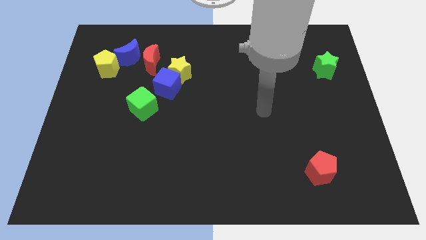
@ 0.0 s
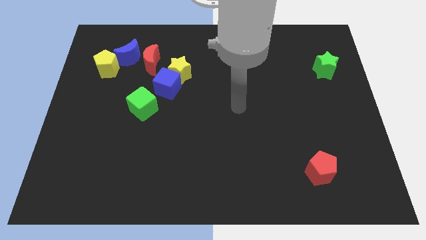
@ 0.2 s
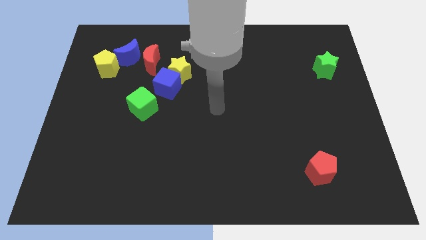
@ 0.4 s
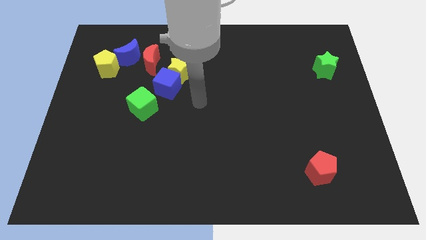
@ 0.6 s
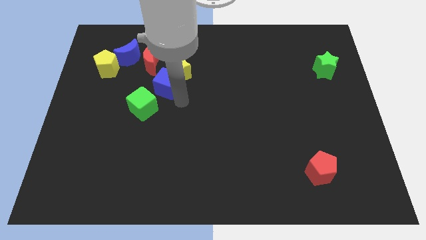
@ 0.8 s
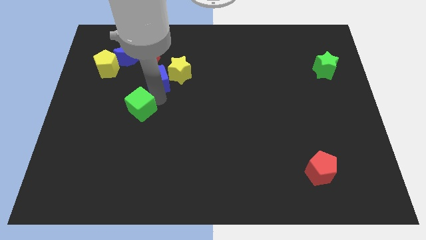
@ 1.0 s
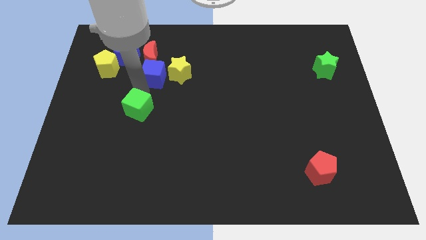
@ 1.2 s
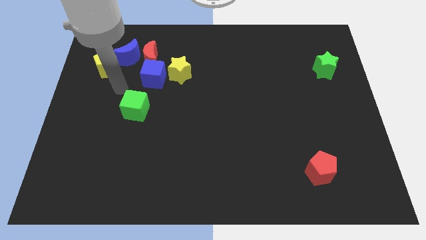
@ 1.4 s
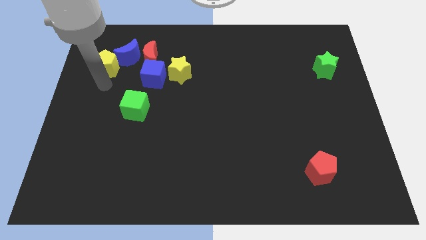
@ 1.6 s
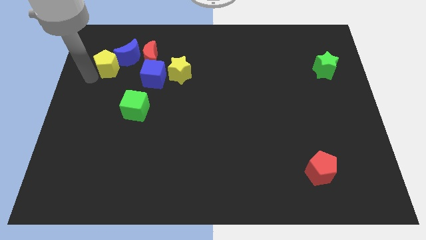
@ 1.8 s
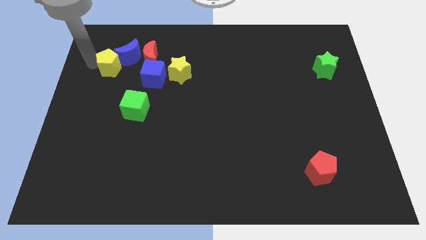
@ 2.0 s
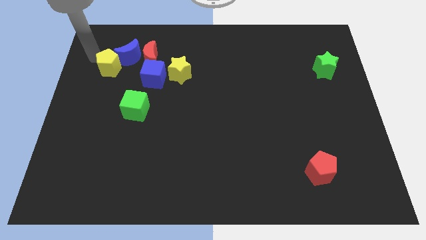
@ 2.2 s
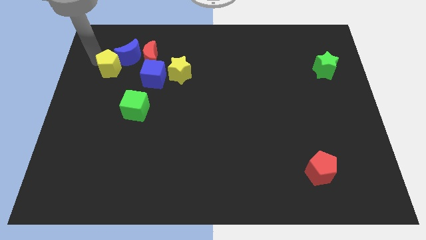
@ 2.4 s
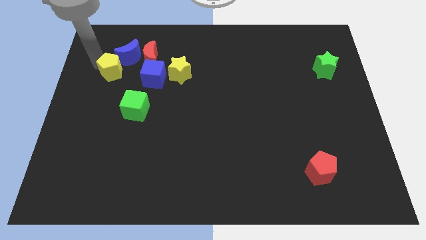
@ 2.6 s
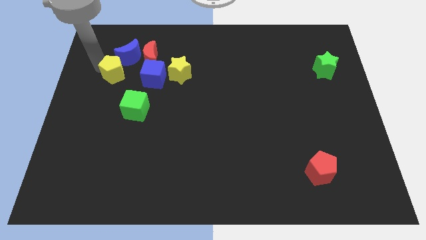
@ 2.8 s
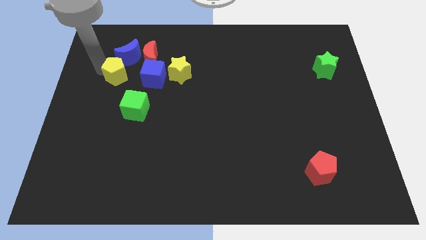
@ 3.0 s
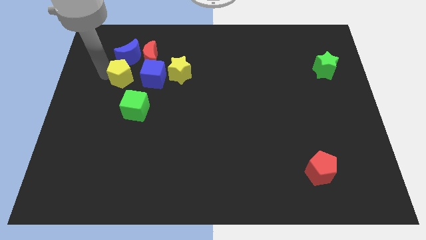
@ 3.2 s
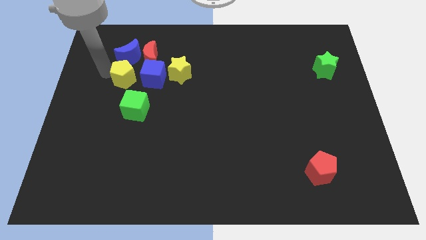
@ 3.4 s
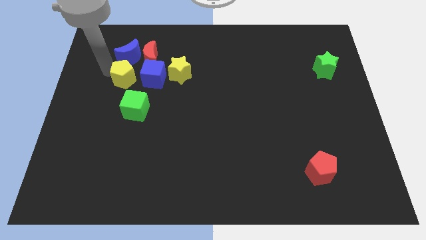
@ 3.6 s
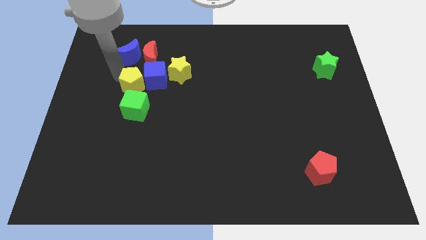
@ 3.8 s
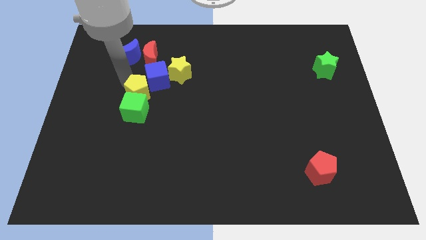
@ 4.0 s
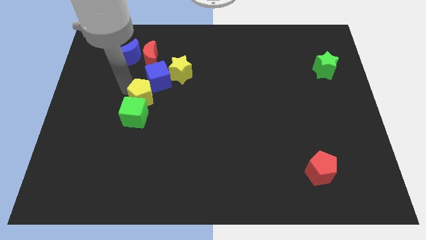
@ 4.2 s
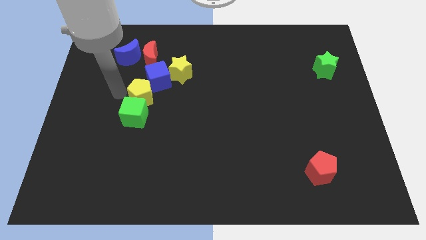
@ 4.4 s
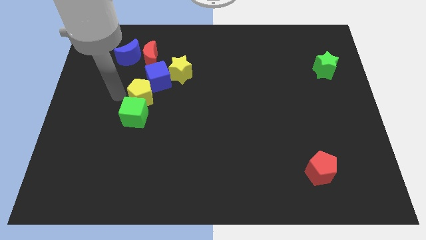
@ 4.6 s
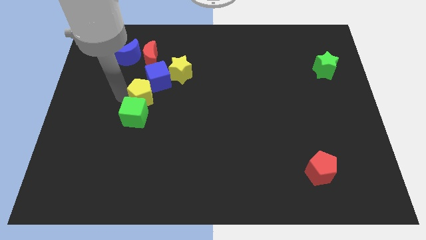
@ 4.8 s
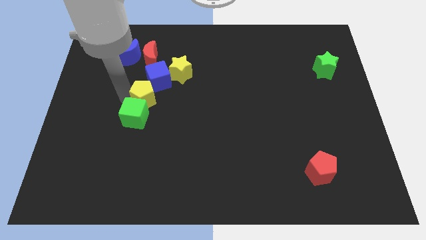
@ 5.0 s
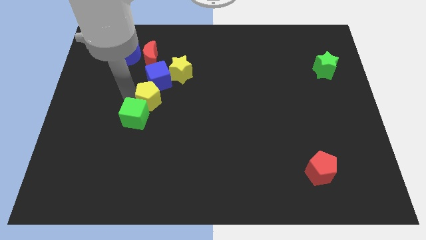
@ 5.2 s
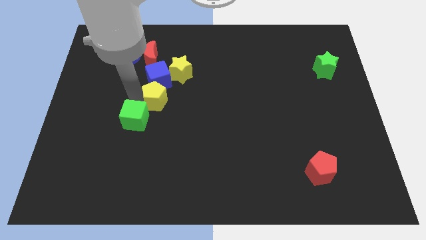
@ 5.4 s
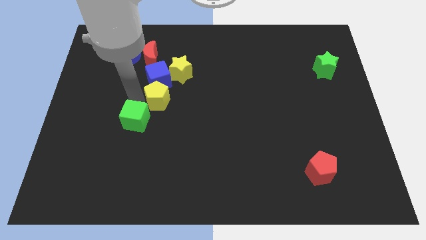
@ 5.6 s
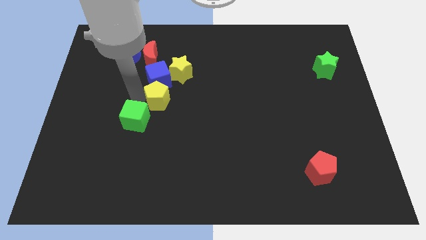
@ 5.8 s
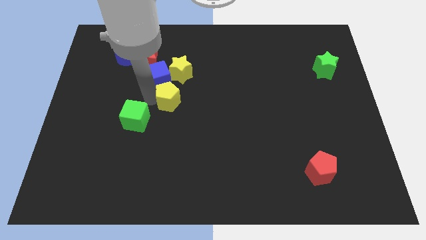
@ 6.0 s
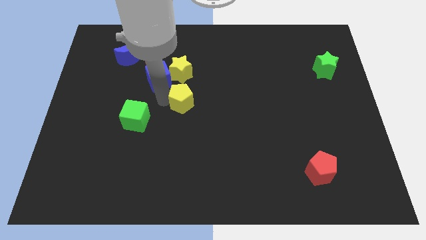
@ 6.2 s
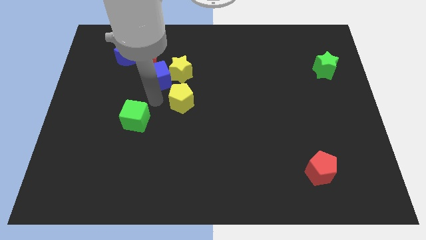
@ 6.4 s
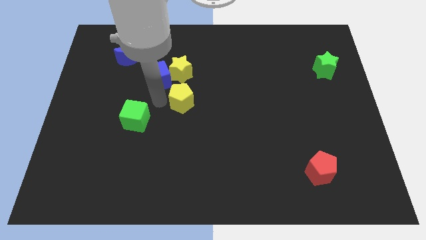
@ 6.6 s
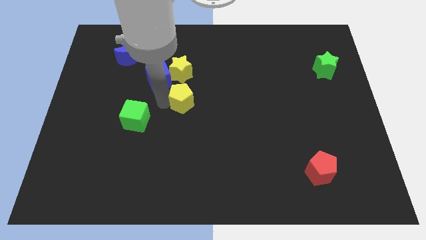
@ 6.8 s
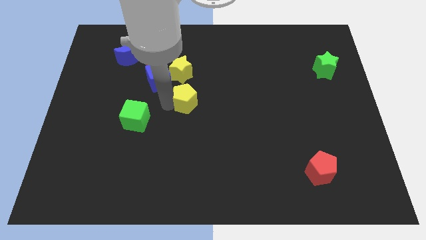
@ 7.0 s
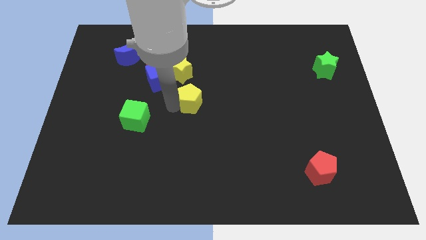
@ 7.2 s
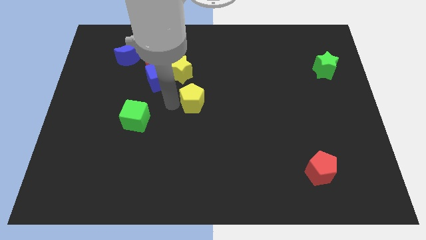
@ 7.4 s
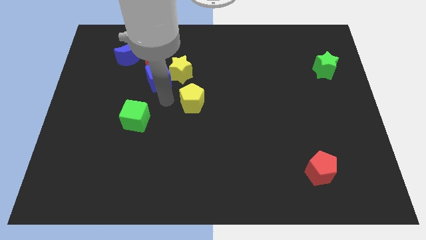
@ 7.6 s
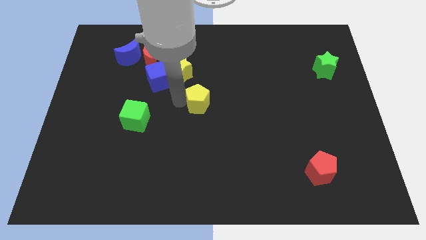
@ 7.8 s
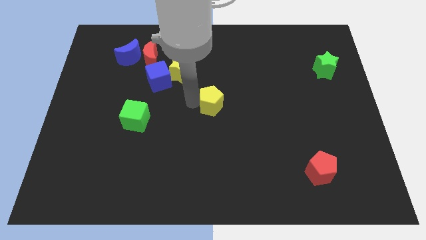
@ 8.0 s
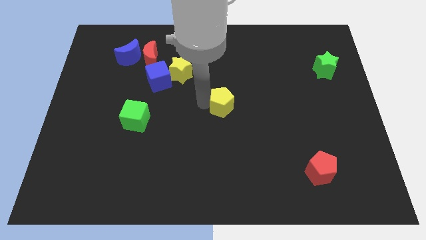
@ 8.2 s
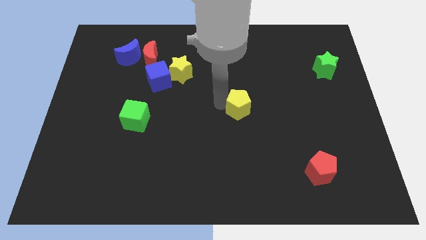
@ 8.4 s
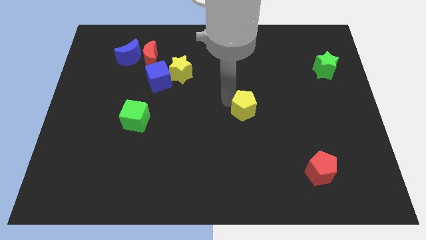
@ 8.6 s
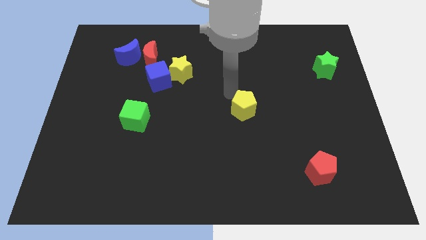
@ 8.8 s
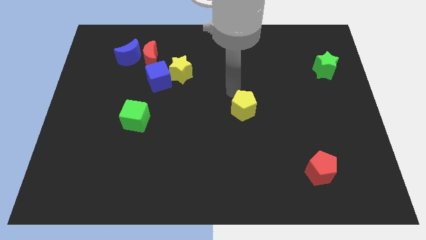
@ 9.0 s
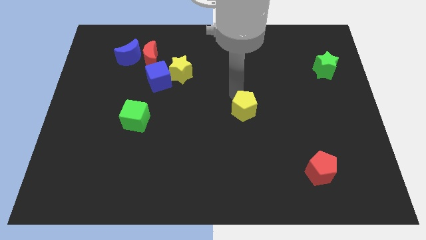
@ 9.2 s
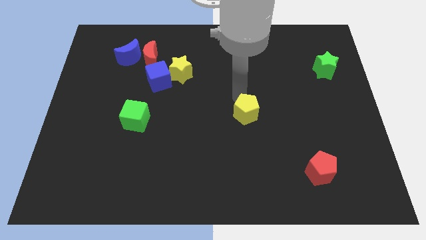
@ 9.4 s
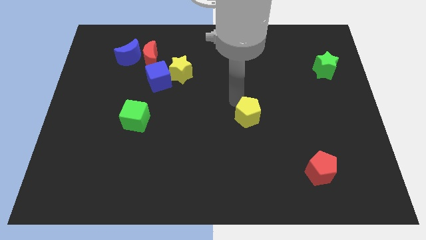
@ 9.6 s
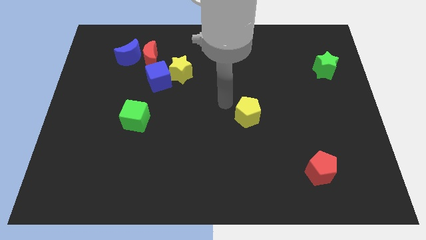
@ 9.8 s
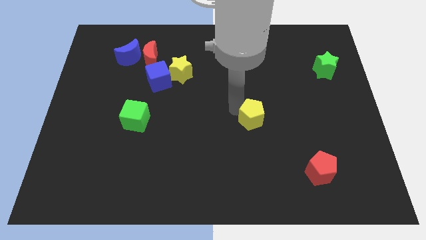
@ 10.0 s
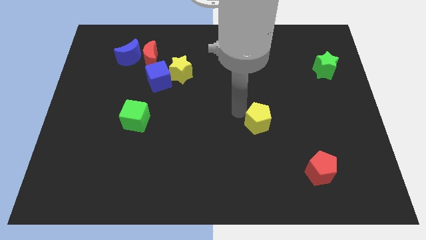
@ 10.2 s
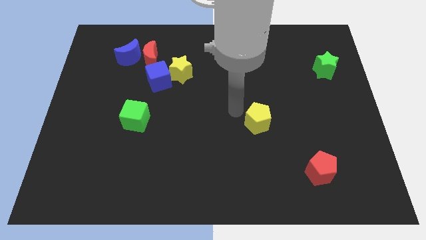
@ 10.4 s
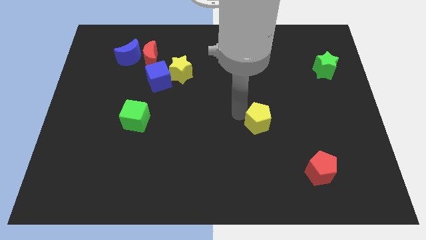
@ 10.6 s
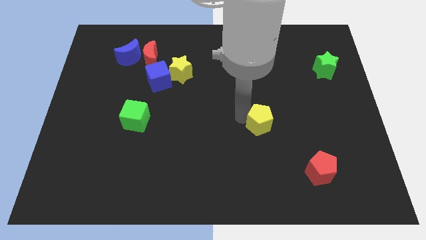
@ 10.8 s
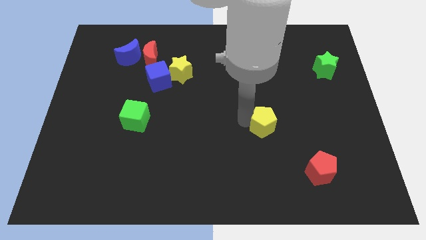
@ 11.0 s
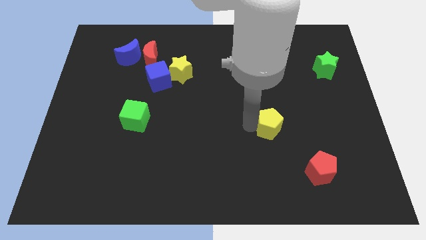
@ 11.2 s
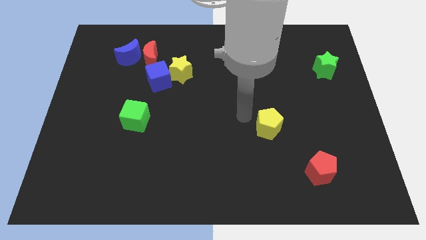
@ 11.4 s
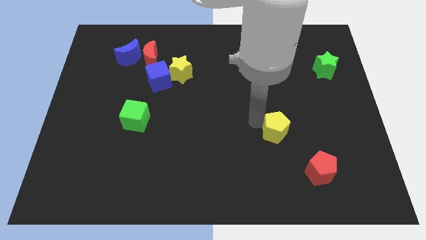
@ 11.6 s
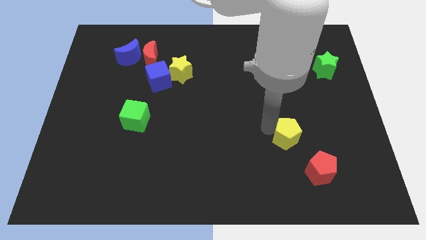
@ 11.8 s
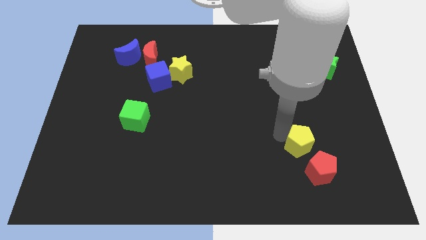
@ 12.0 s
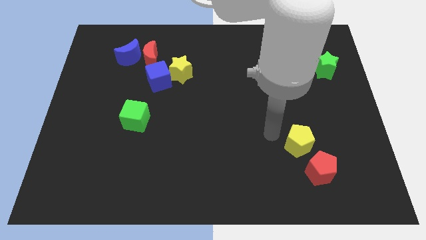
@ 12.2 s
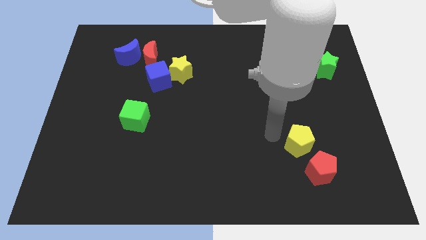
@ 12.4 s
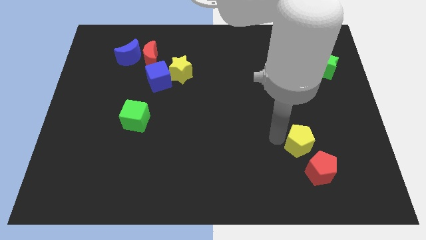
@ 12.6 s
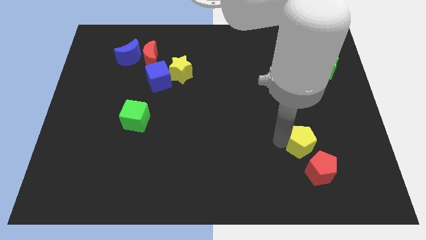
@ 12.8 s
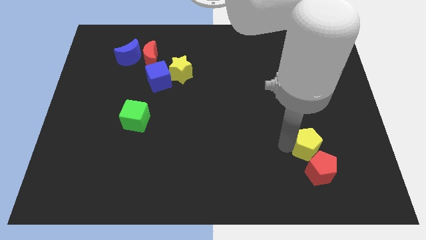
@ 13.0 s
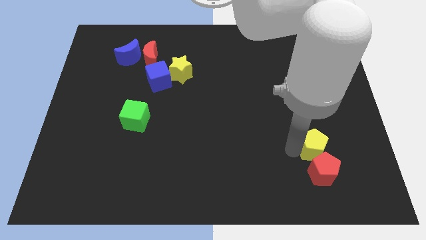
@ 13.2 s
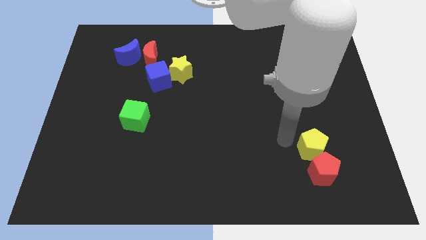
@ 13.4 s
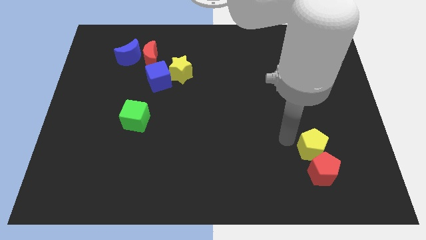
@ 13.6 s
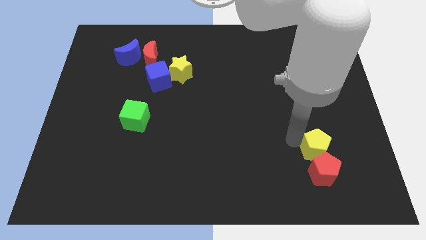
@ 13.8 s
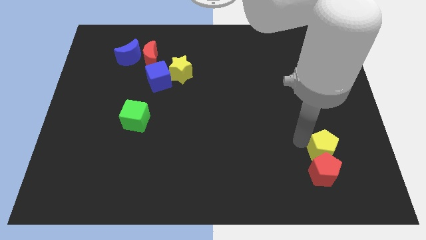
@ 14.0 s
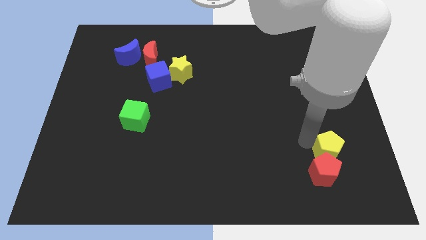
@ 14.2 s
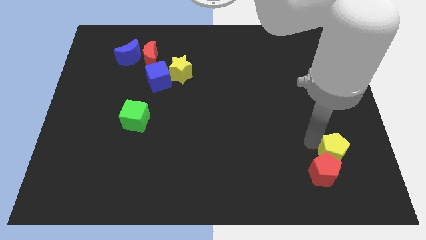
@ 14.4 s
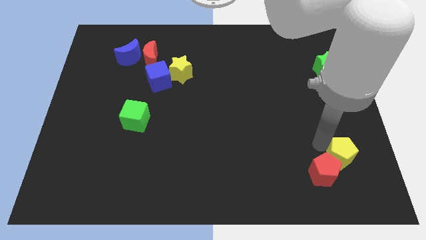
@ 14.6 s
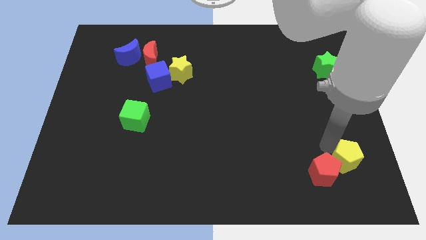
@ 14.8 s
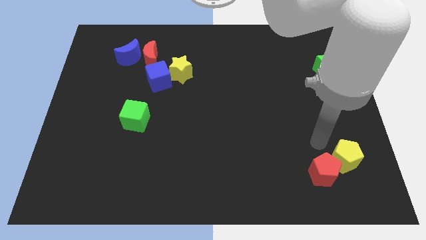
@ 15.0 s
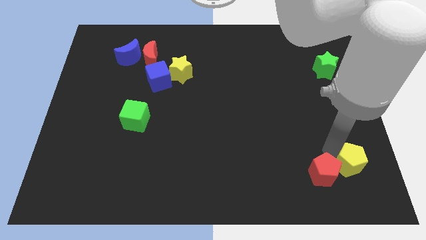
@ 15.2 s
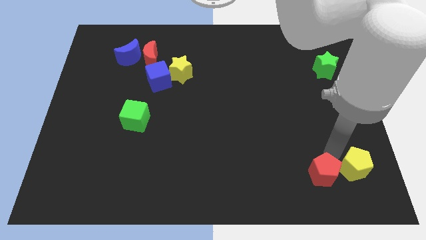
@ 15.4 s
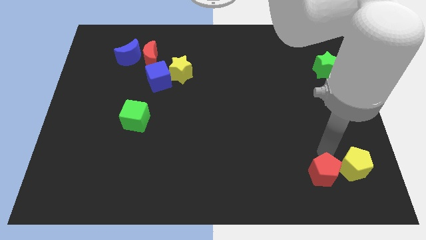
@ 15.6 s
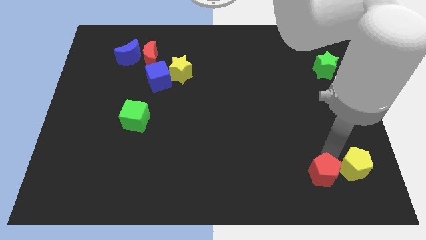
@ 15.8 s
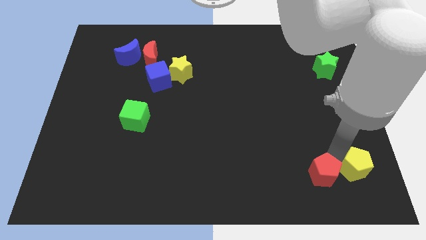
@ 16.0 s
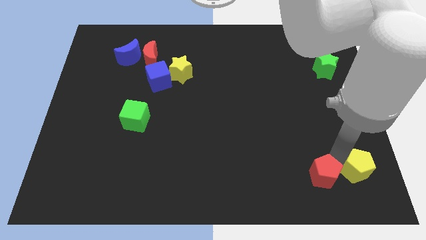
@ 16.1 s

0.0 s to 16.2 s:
slide the yellow pentagon to the bottom right of the board
